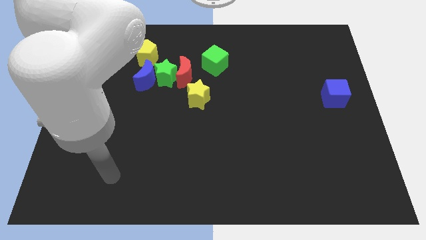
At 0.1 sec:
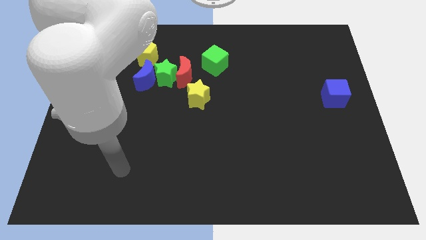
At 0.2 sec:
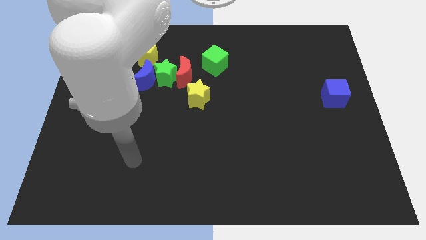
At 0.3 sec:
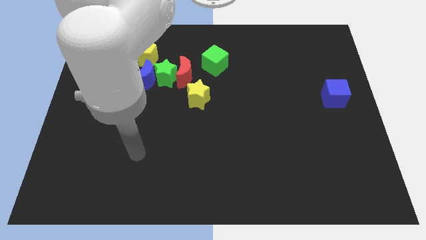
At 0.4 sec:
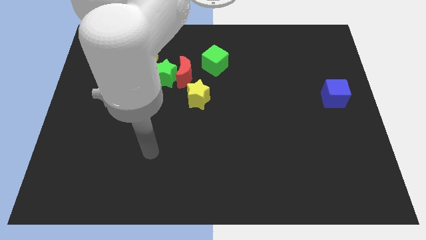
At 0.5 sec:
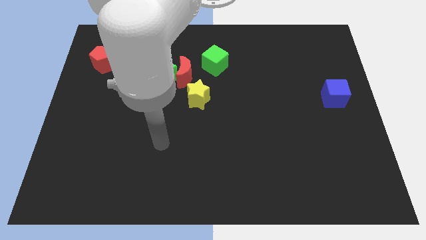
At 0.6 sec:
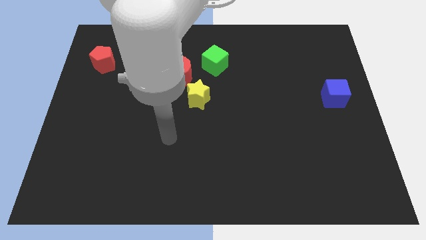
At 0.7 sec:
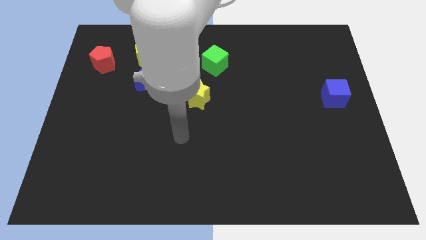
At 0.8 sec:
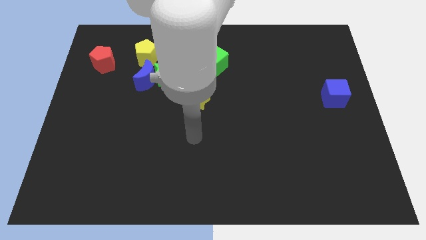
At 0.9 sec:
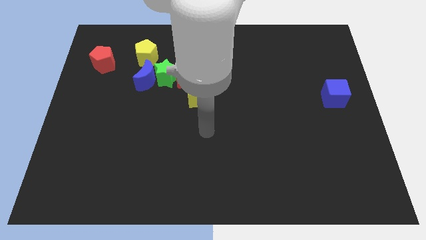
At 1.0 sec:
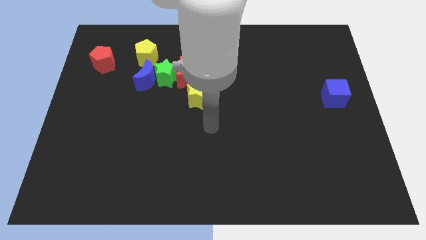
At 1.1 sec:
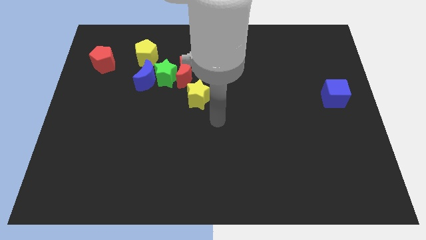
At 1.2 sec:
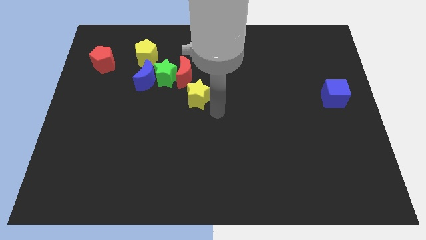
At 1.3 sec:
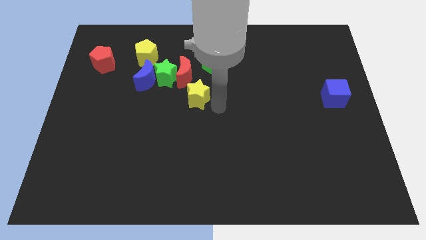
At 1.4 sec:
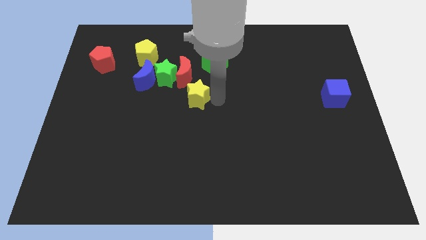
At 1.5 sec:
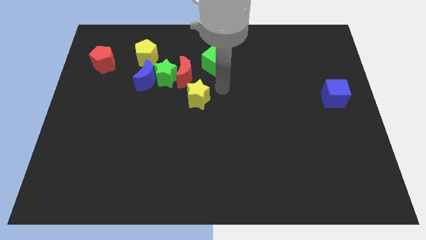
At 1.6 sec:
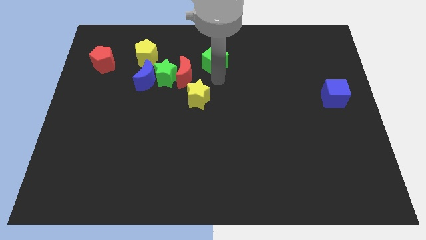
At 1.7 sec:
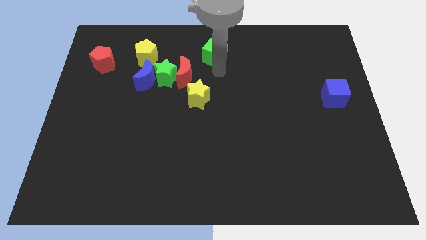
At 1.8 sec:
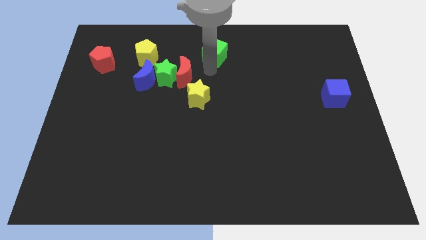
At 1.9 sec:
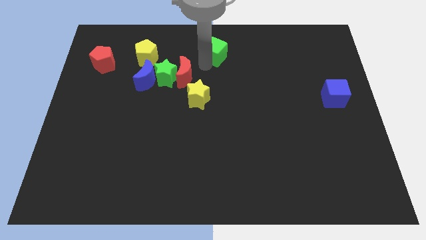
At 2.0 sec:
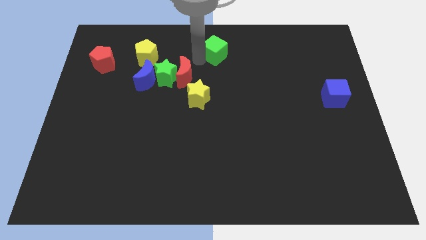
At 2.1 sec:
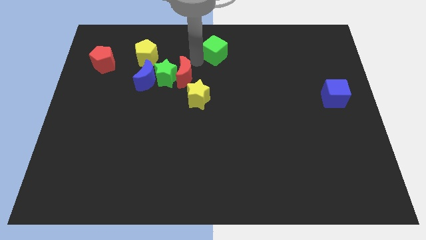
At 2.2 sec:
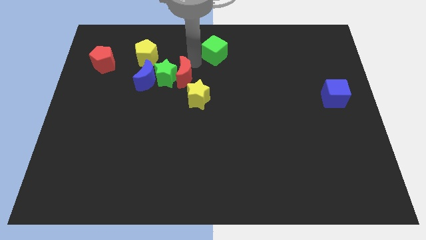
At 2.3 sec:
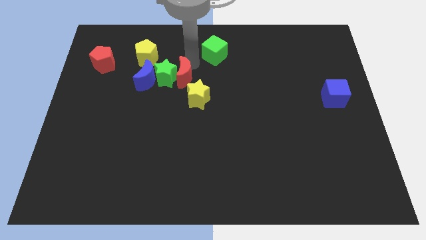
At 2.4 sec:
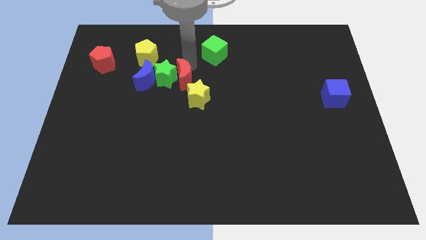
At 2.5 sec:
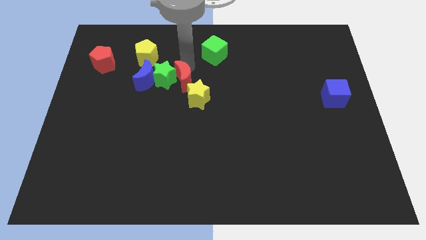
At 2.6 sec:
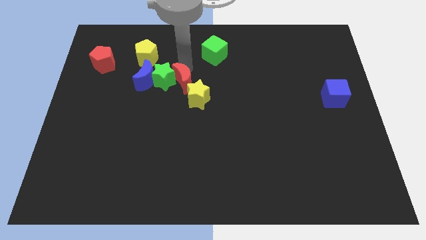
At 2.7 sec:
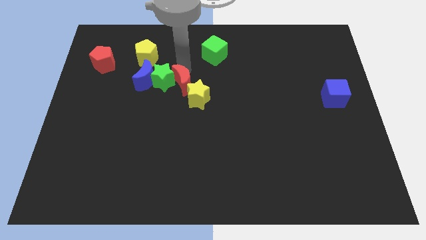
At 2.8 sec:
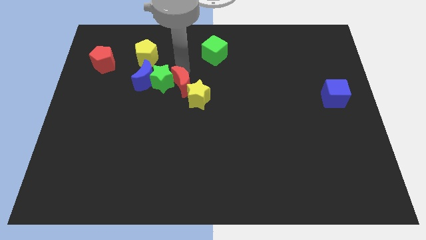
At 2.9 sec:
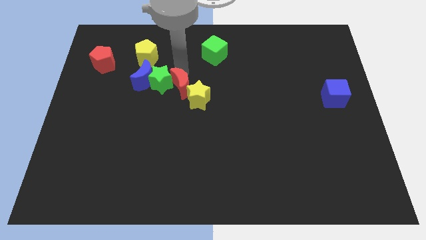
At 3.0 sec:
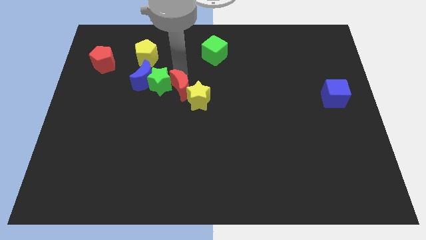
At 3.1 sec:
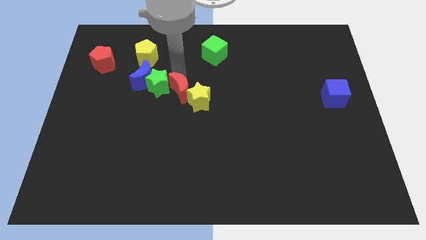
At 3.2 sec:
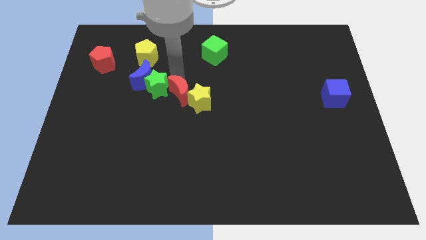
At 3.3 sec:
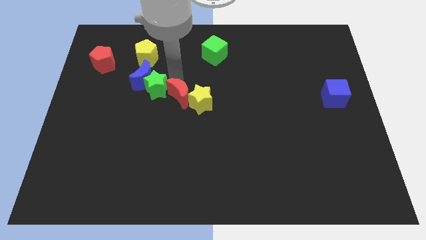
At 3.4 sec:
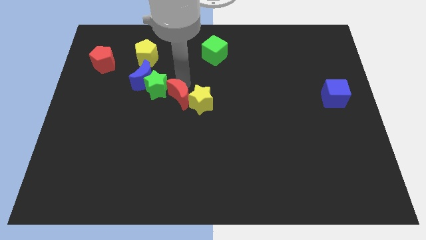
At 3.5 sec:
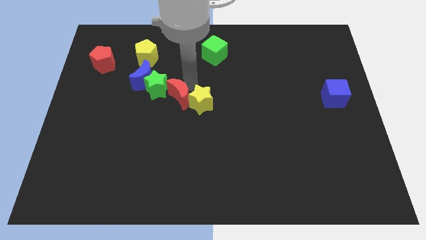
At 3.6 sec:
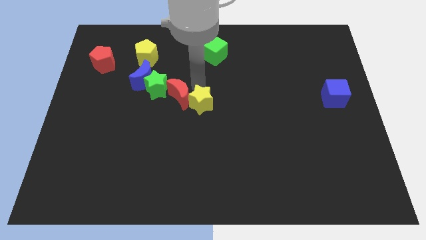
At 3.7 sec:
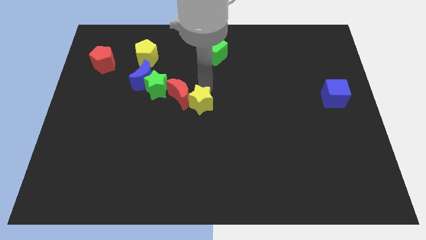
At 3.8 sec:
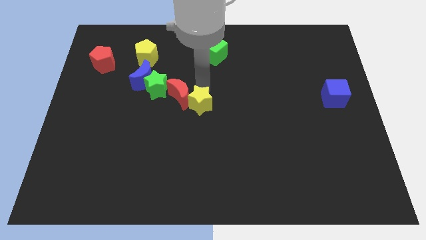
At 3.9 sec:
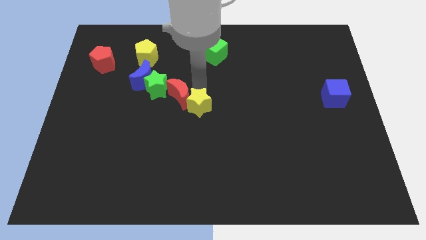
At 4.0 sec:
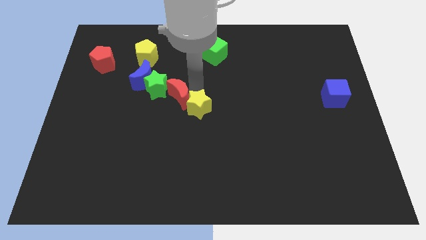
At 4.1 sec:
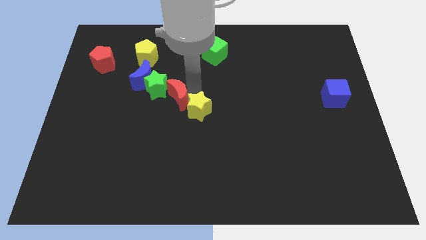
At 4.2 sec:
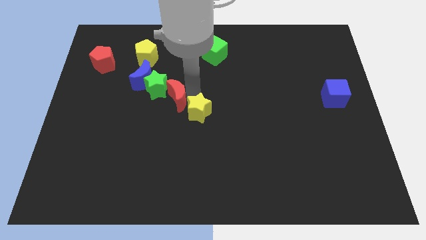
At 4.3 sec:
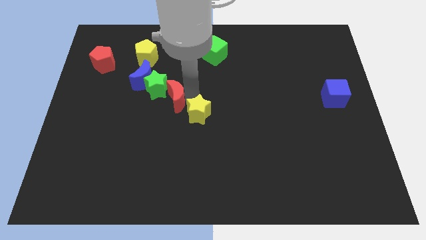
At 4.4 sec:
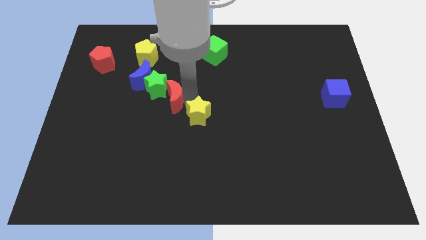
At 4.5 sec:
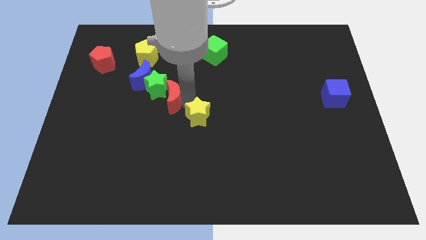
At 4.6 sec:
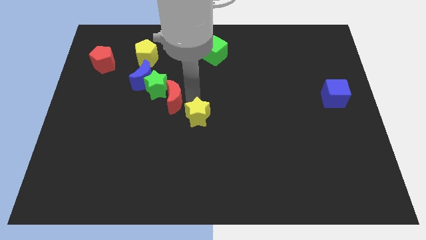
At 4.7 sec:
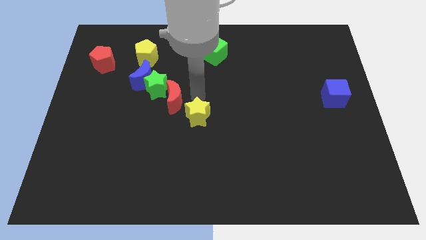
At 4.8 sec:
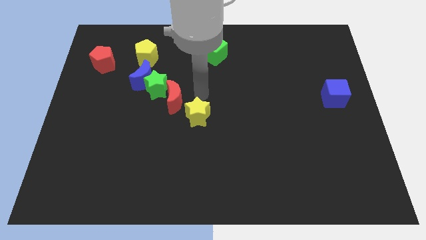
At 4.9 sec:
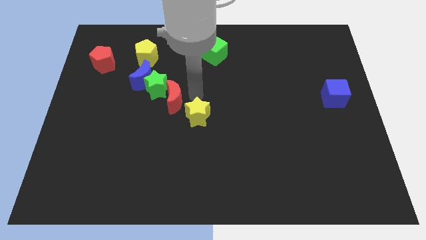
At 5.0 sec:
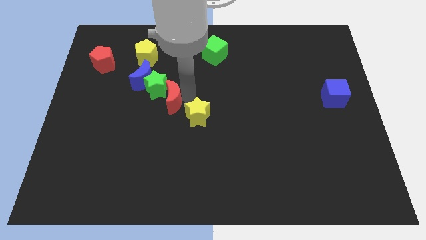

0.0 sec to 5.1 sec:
slightly push the red moon downwards and left

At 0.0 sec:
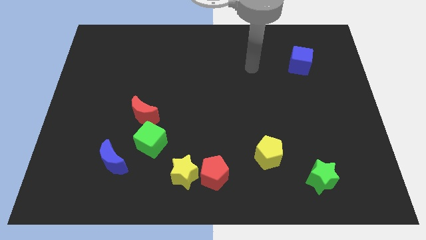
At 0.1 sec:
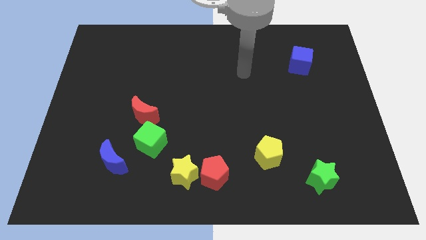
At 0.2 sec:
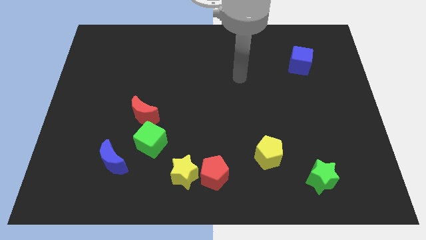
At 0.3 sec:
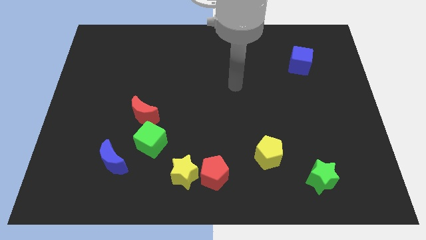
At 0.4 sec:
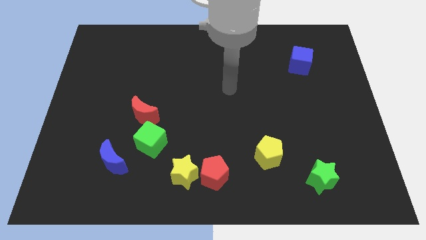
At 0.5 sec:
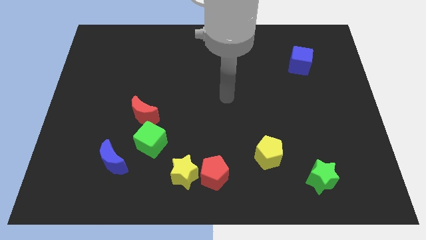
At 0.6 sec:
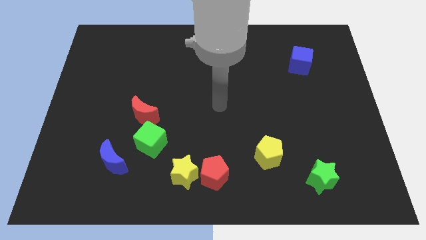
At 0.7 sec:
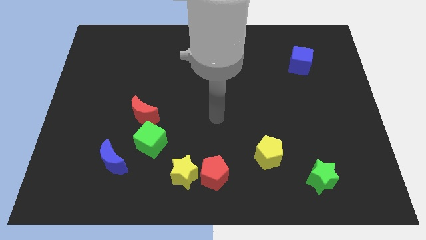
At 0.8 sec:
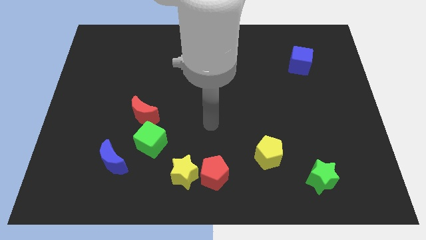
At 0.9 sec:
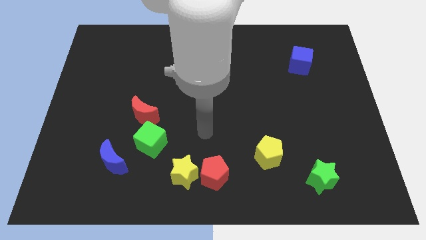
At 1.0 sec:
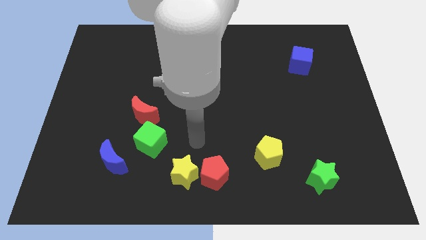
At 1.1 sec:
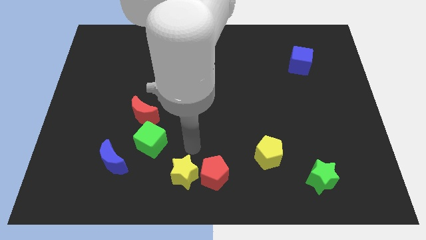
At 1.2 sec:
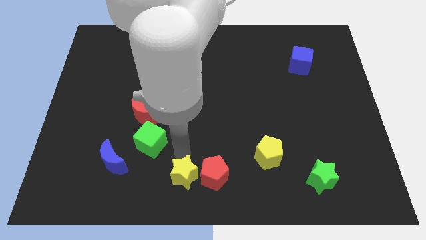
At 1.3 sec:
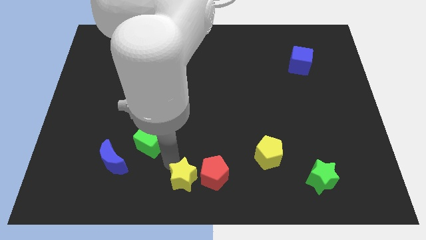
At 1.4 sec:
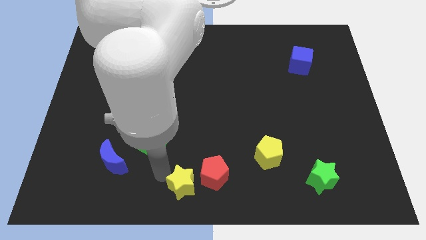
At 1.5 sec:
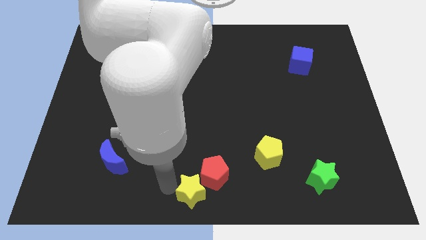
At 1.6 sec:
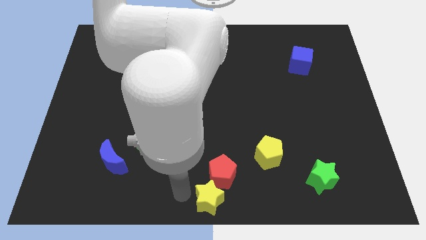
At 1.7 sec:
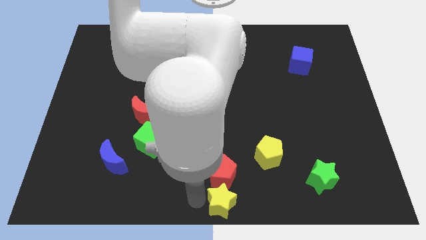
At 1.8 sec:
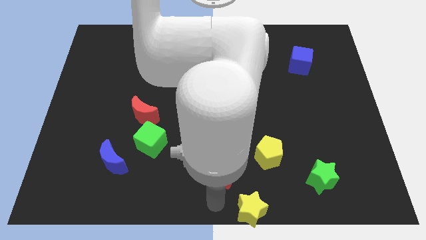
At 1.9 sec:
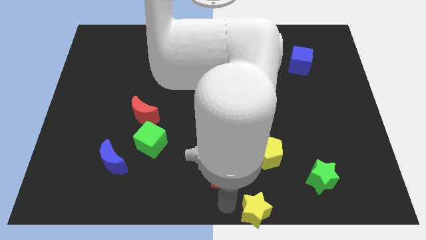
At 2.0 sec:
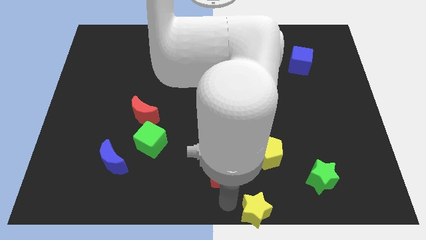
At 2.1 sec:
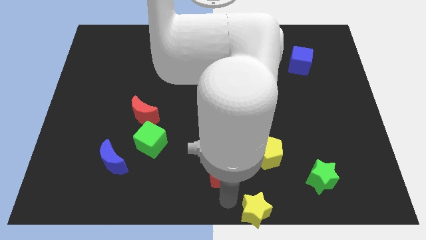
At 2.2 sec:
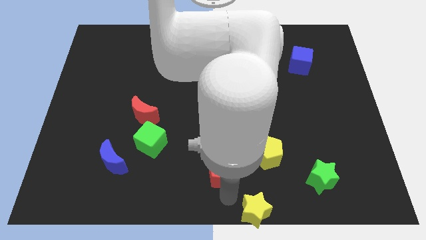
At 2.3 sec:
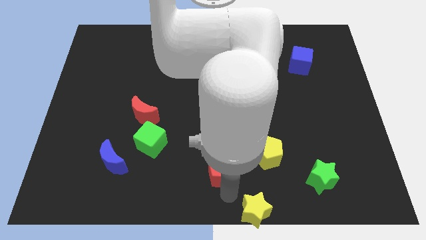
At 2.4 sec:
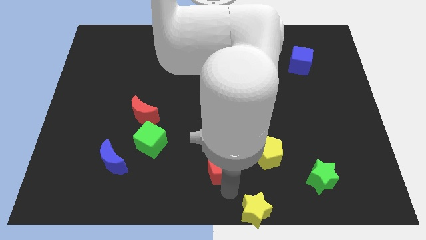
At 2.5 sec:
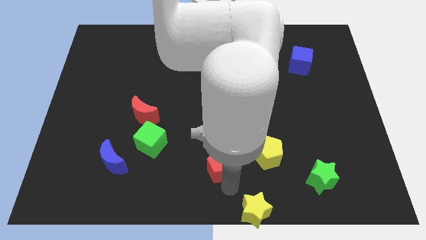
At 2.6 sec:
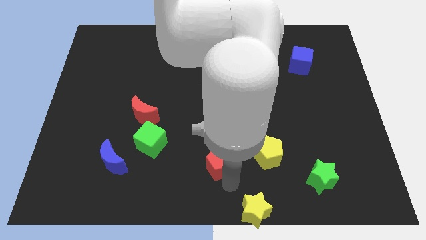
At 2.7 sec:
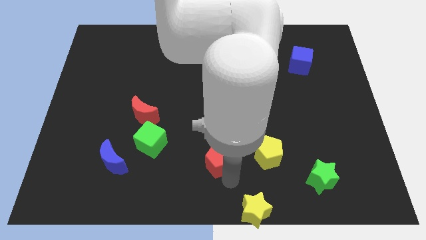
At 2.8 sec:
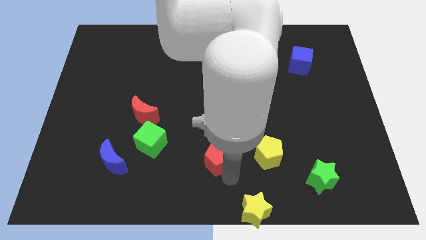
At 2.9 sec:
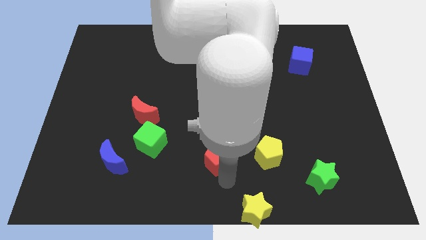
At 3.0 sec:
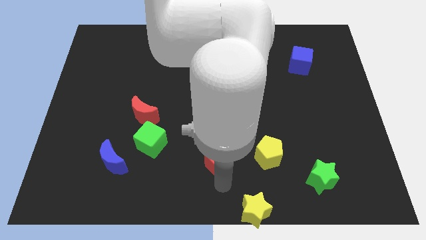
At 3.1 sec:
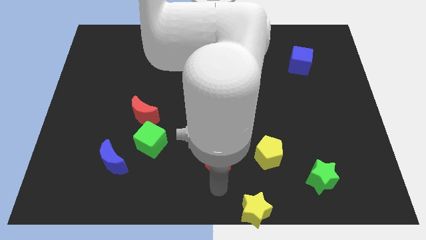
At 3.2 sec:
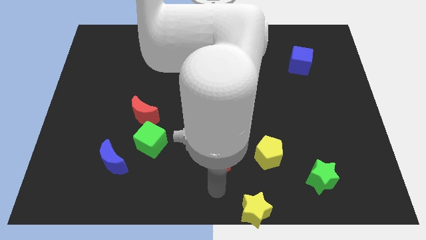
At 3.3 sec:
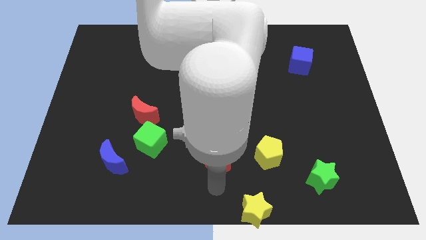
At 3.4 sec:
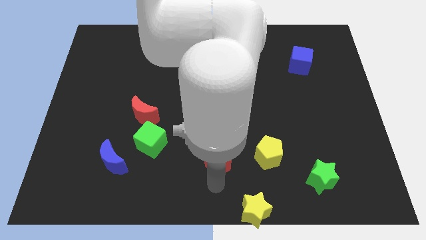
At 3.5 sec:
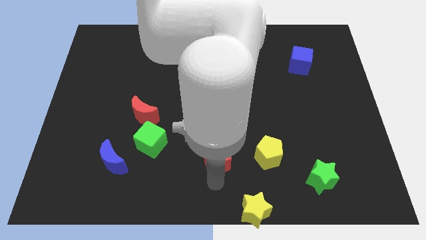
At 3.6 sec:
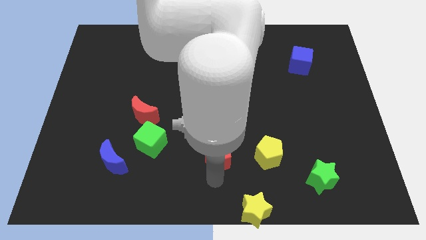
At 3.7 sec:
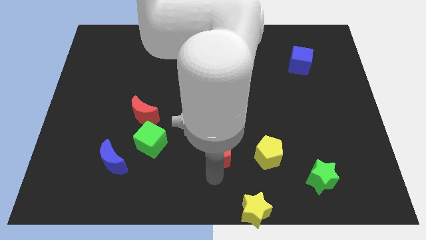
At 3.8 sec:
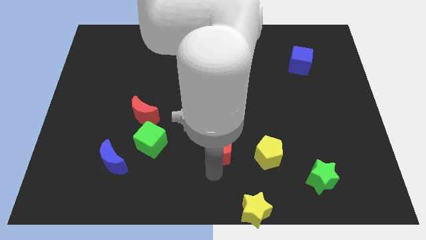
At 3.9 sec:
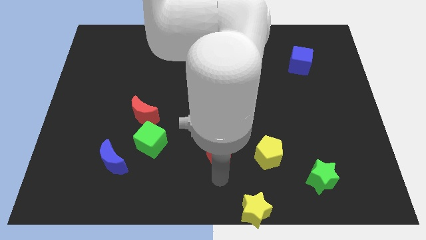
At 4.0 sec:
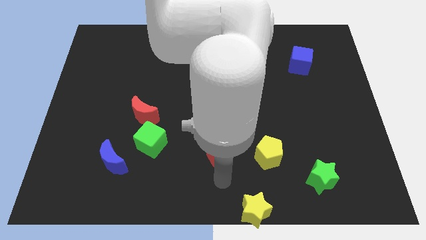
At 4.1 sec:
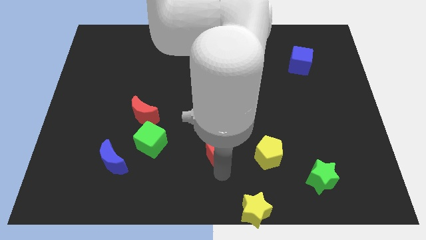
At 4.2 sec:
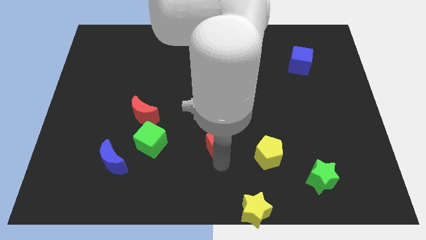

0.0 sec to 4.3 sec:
slightly move the red pentagon upwards
